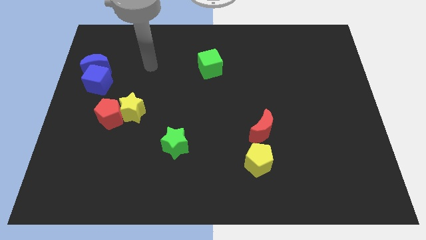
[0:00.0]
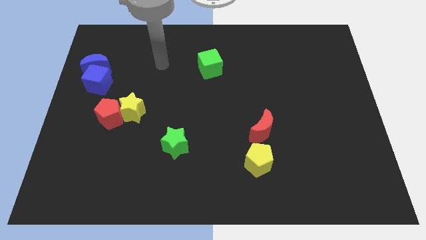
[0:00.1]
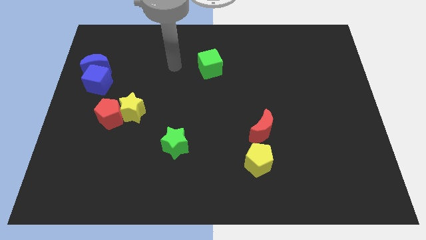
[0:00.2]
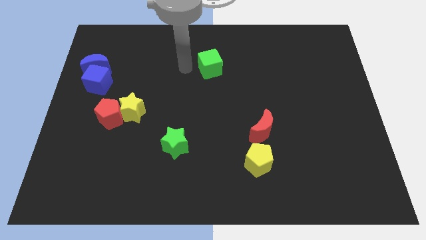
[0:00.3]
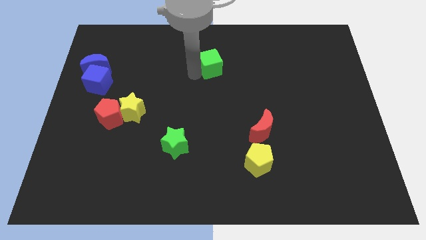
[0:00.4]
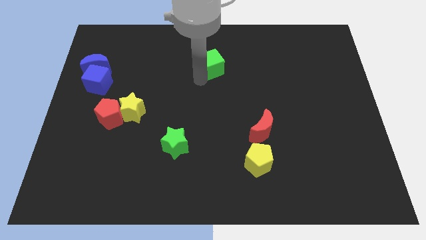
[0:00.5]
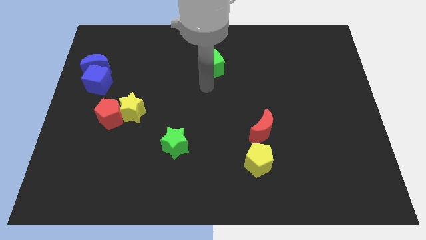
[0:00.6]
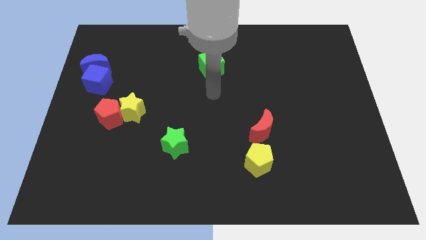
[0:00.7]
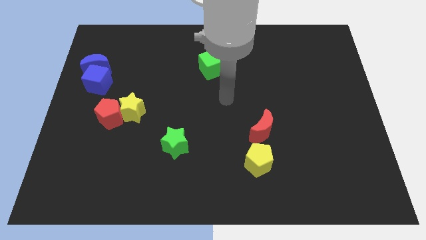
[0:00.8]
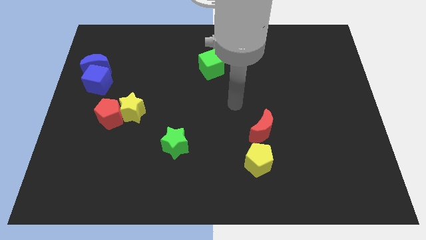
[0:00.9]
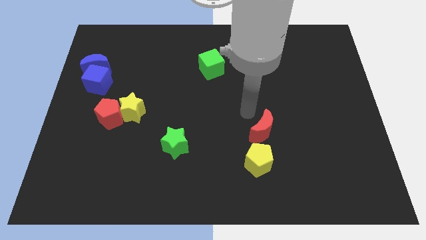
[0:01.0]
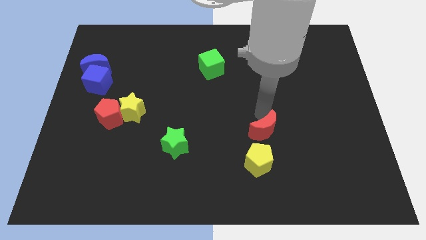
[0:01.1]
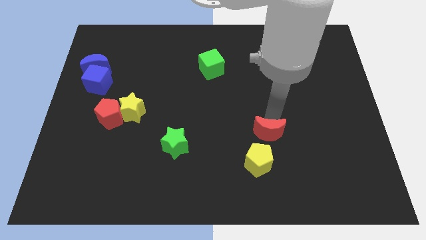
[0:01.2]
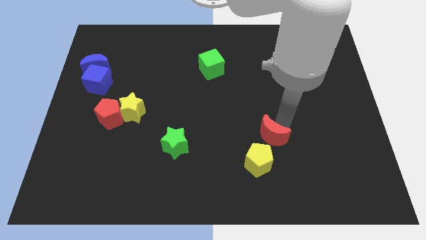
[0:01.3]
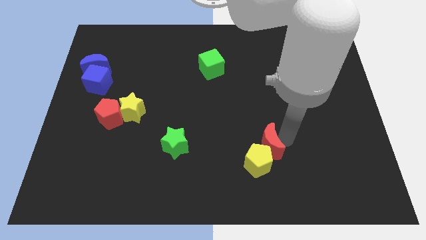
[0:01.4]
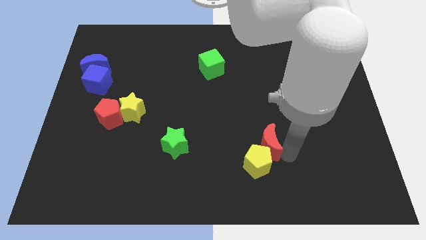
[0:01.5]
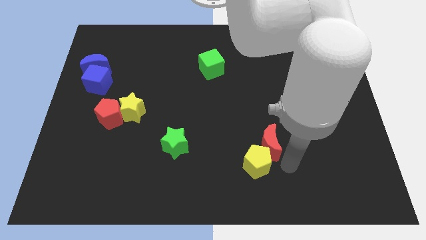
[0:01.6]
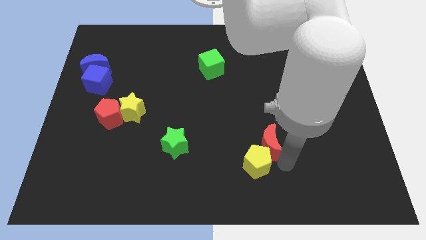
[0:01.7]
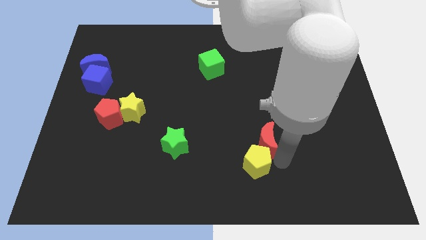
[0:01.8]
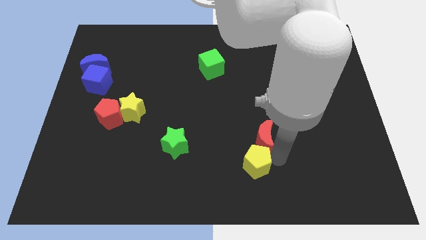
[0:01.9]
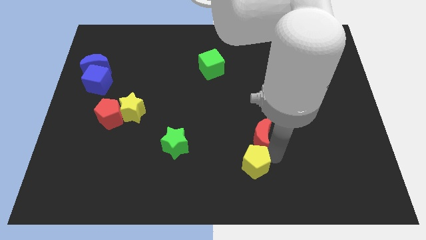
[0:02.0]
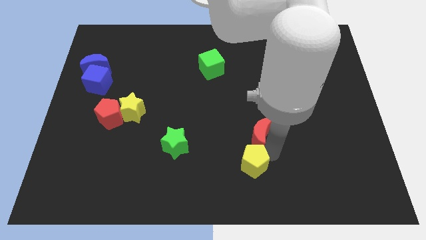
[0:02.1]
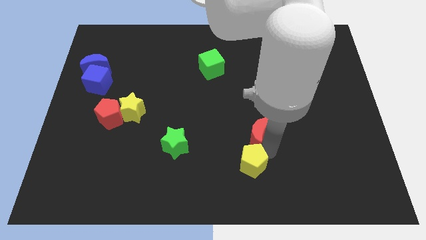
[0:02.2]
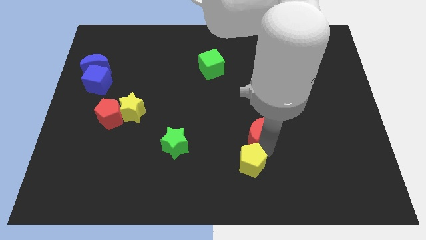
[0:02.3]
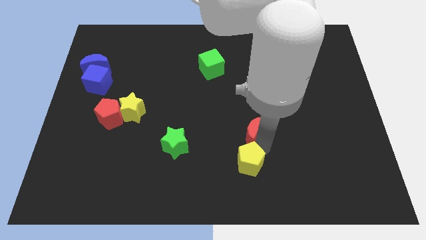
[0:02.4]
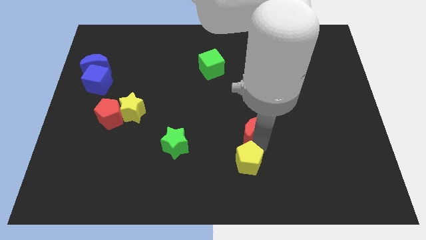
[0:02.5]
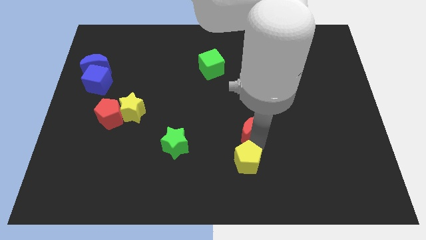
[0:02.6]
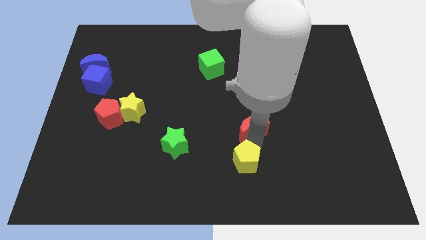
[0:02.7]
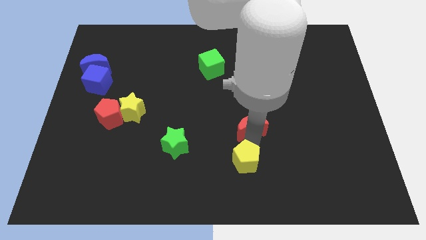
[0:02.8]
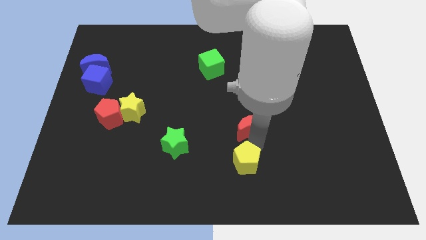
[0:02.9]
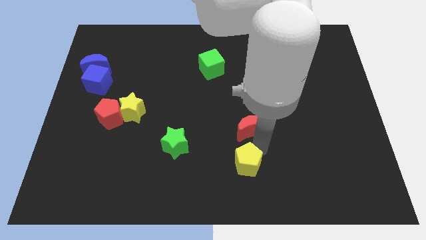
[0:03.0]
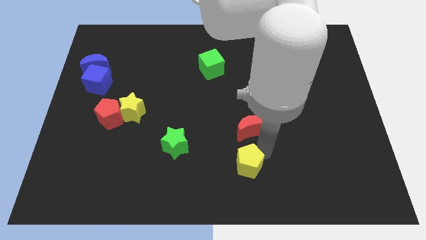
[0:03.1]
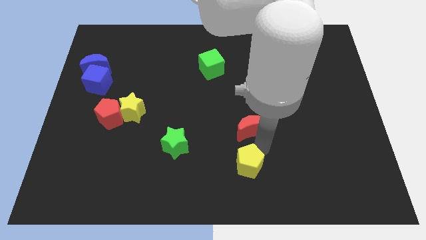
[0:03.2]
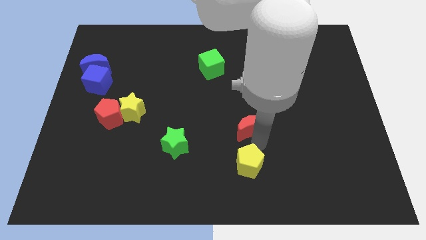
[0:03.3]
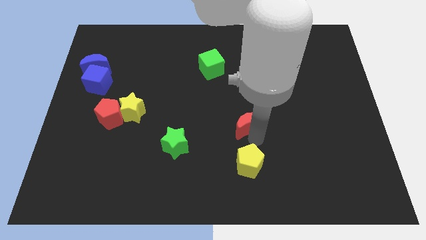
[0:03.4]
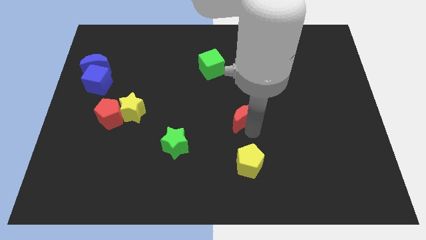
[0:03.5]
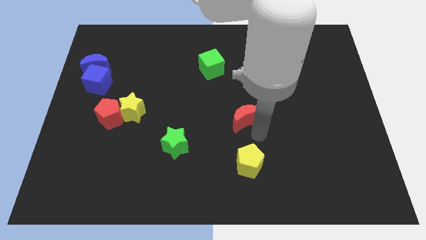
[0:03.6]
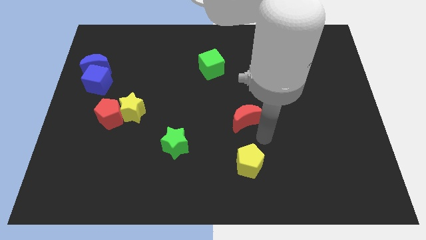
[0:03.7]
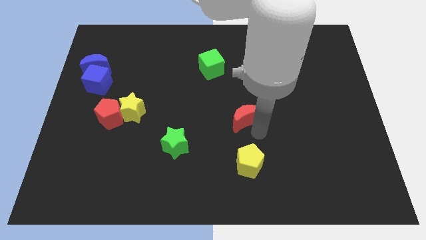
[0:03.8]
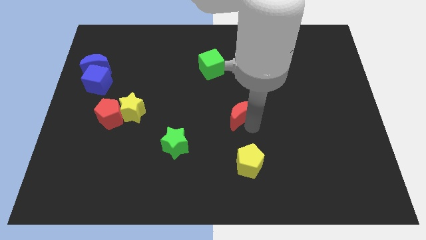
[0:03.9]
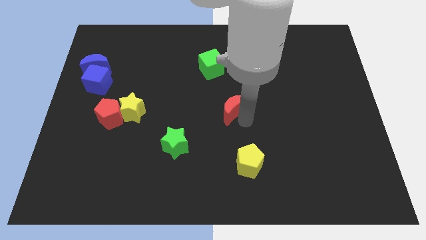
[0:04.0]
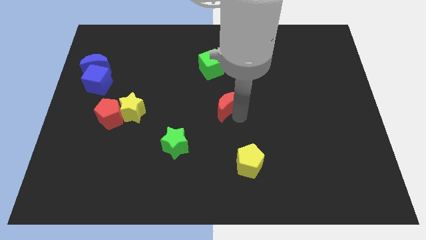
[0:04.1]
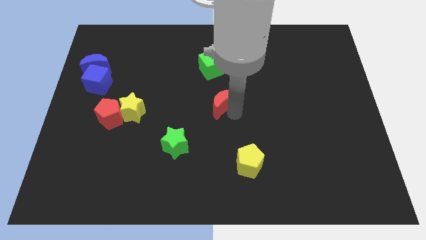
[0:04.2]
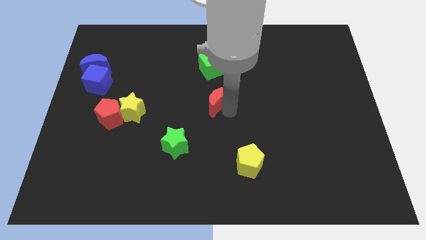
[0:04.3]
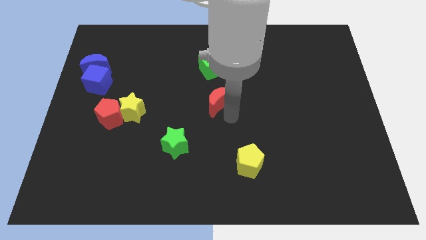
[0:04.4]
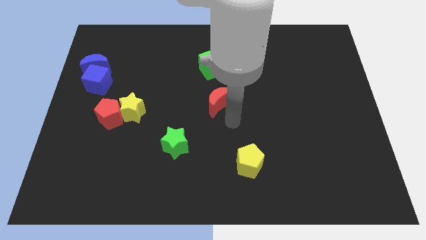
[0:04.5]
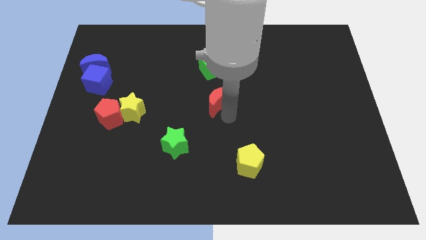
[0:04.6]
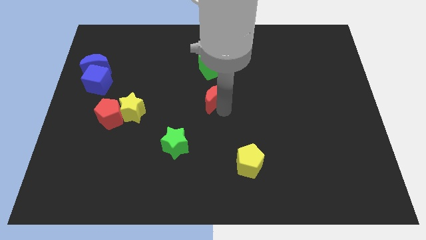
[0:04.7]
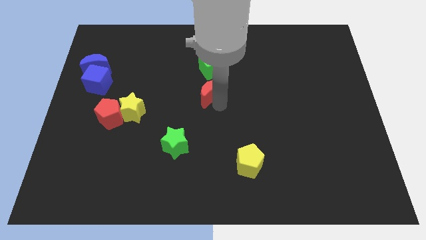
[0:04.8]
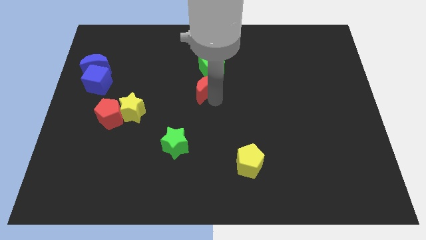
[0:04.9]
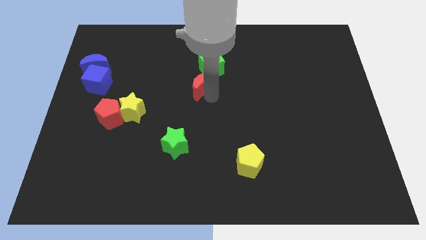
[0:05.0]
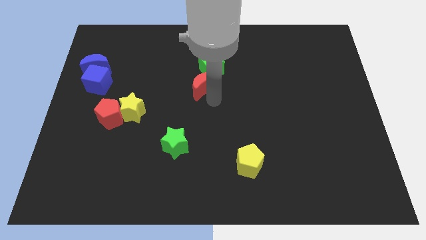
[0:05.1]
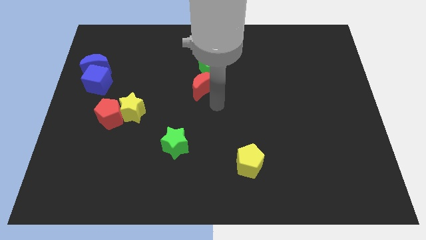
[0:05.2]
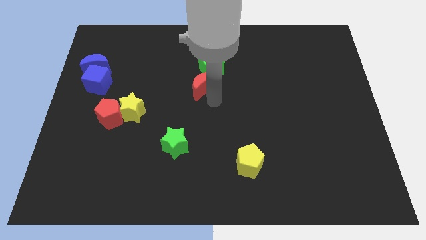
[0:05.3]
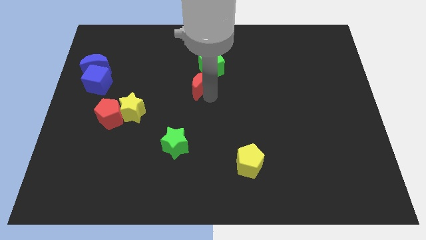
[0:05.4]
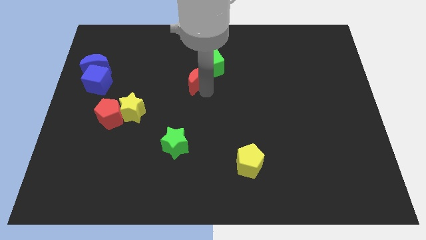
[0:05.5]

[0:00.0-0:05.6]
push the red moon up and to the left

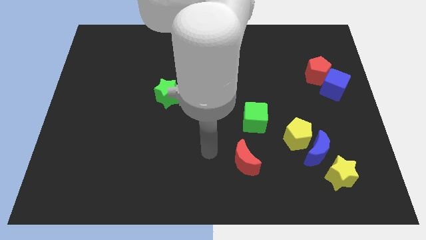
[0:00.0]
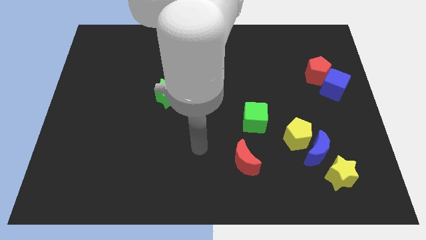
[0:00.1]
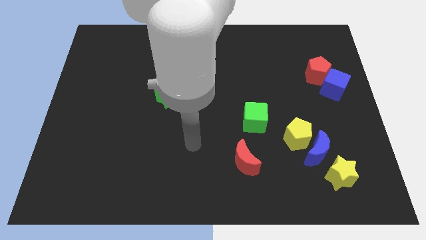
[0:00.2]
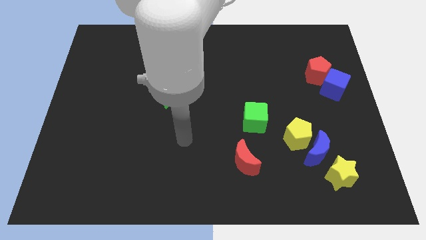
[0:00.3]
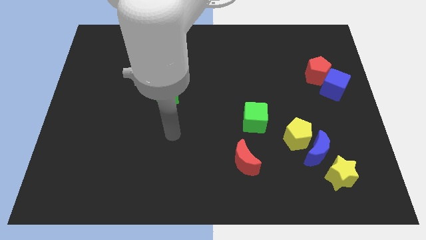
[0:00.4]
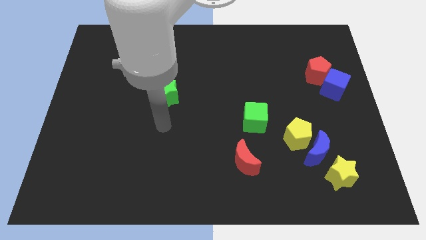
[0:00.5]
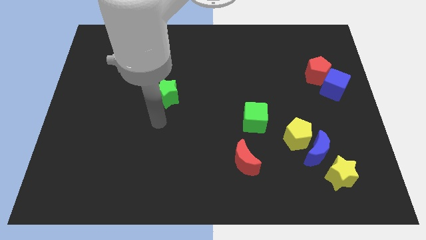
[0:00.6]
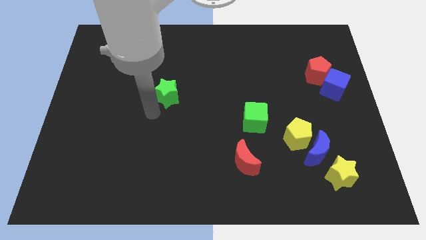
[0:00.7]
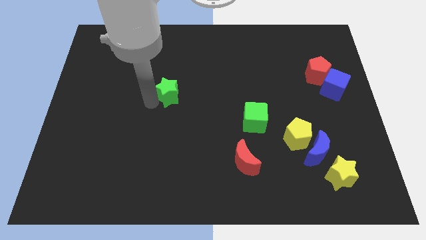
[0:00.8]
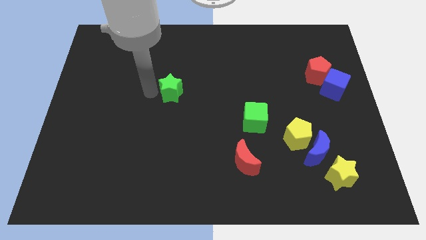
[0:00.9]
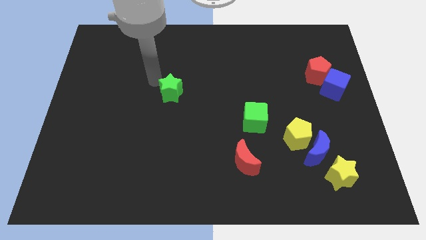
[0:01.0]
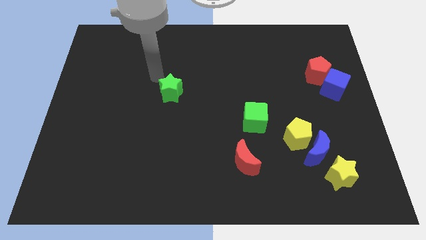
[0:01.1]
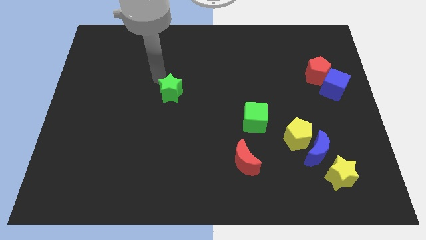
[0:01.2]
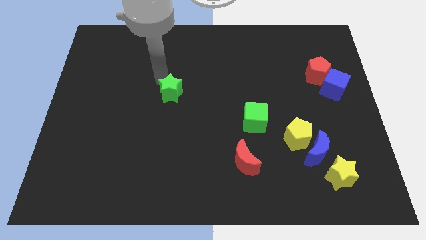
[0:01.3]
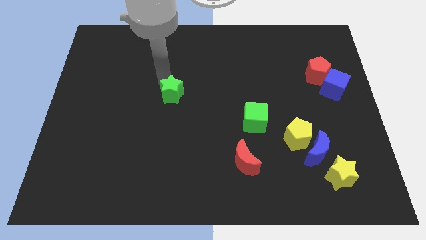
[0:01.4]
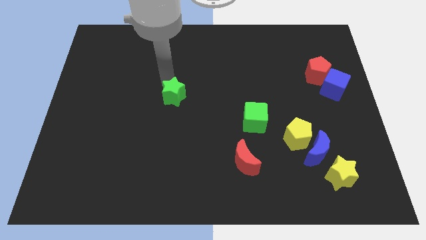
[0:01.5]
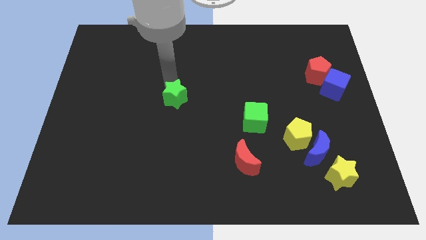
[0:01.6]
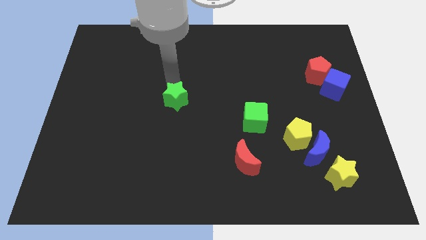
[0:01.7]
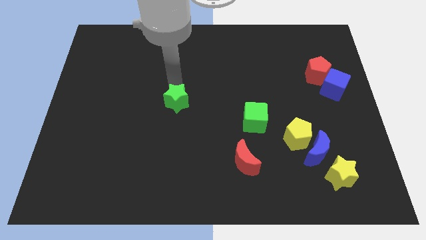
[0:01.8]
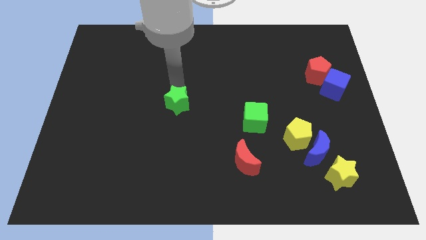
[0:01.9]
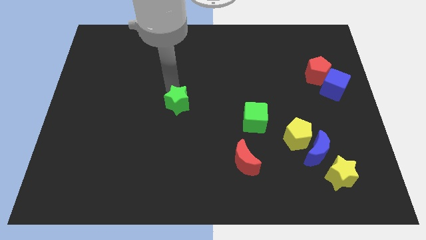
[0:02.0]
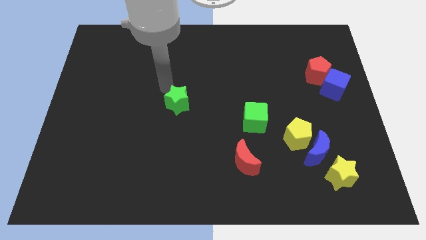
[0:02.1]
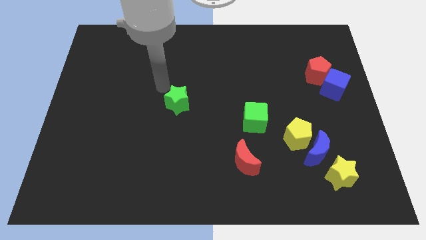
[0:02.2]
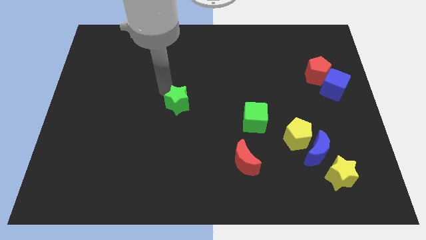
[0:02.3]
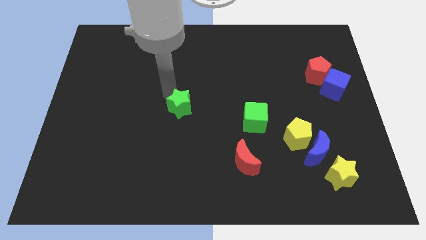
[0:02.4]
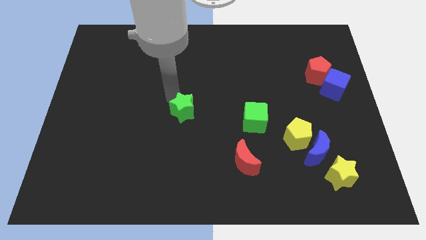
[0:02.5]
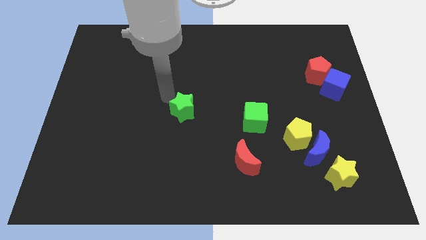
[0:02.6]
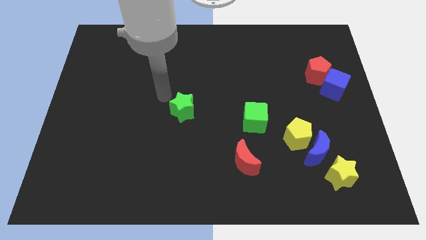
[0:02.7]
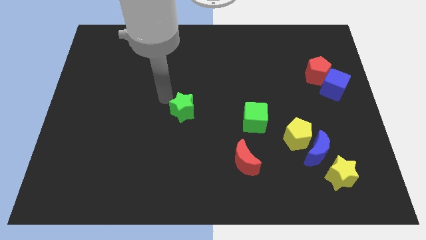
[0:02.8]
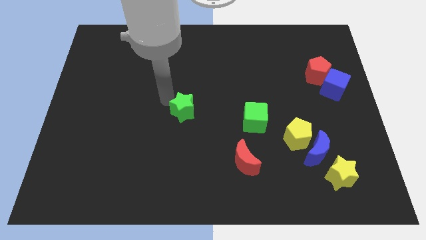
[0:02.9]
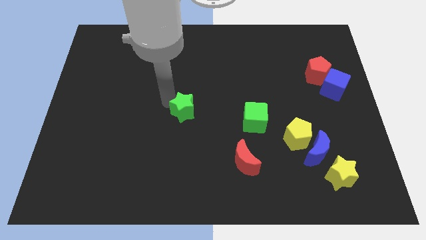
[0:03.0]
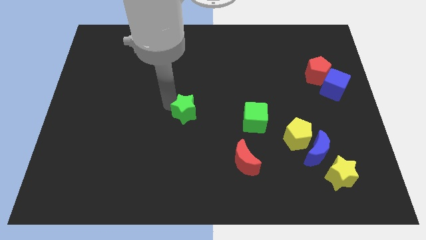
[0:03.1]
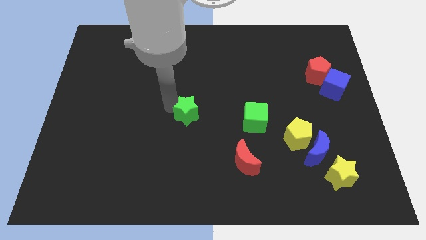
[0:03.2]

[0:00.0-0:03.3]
slide the green star downwards and then to the right a bit
